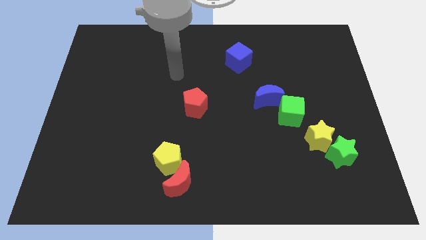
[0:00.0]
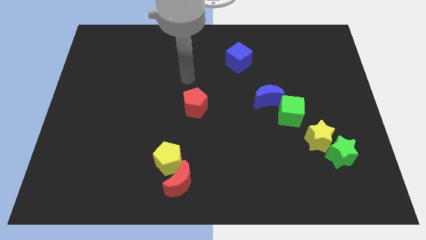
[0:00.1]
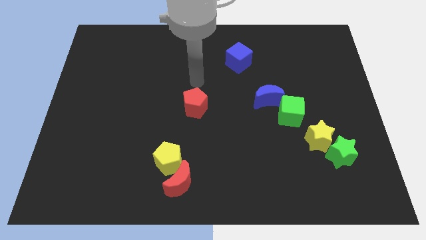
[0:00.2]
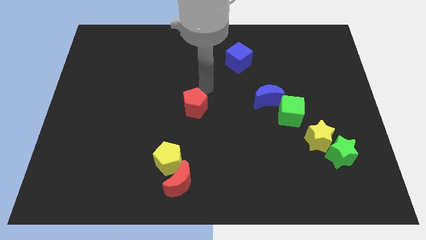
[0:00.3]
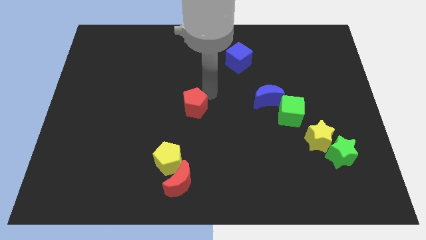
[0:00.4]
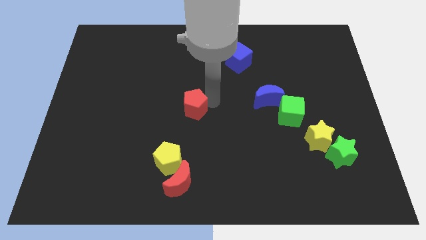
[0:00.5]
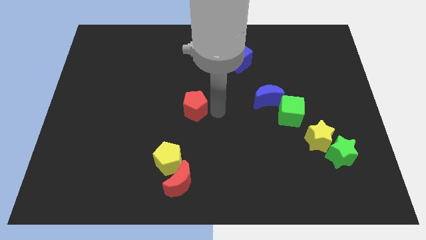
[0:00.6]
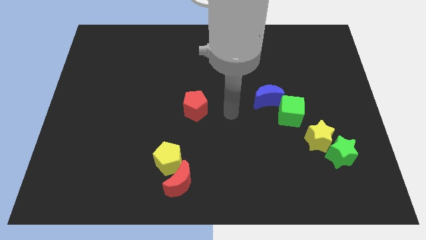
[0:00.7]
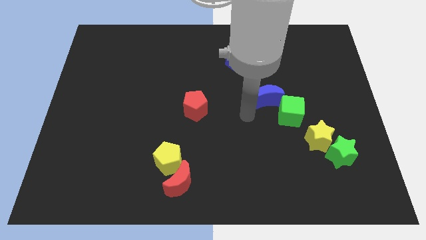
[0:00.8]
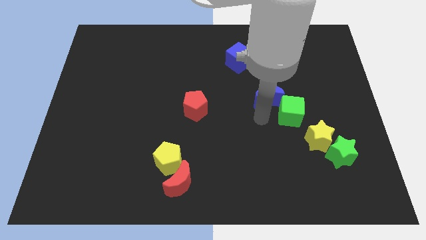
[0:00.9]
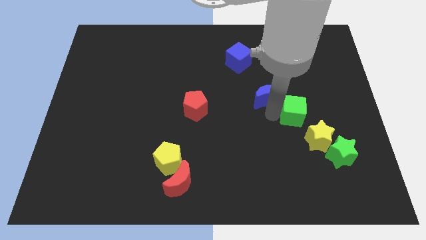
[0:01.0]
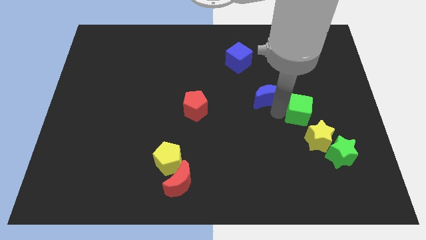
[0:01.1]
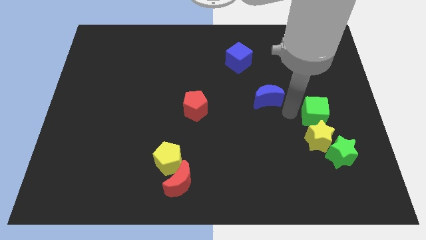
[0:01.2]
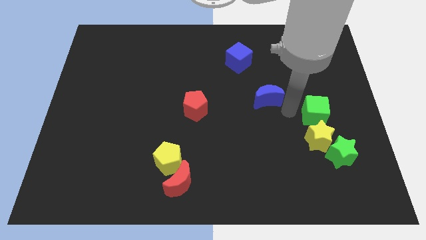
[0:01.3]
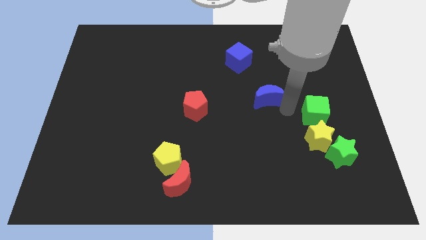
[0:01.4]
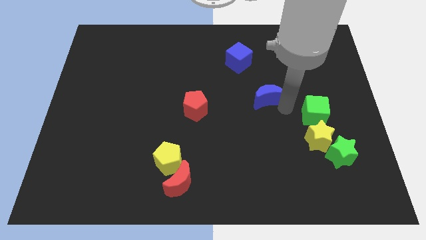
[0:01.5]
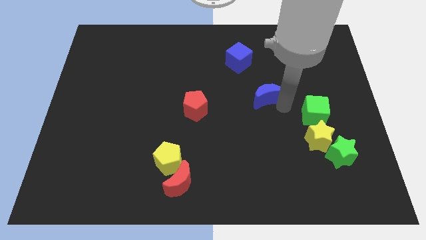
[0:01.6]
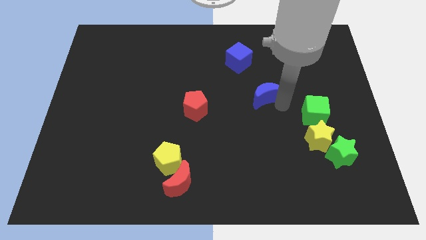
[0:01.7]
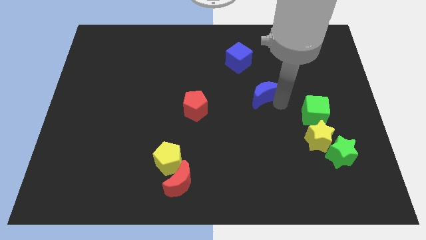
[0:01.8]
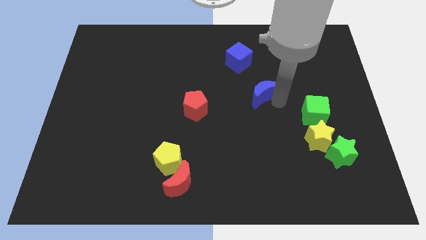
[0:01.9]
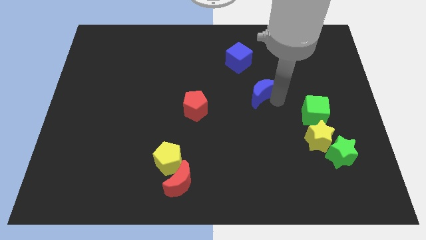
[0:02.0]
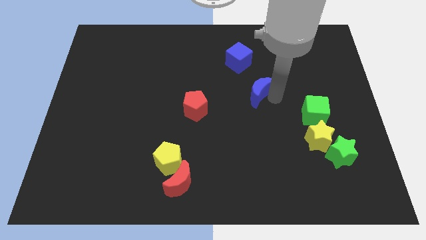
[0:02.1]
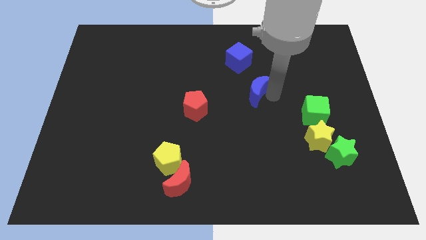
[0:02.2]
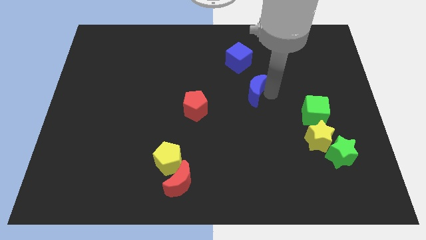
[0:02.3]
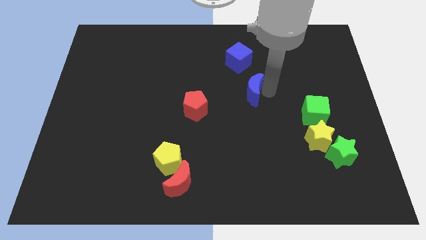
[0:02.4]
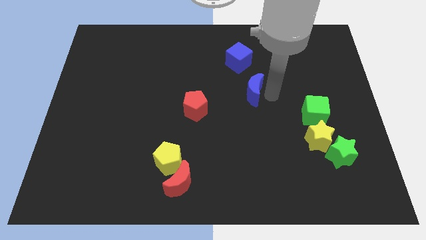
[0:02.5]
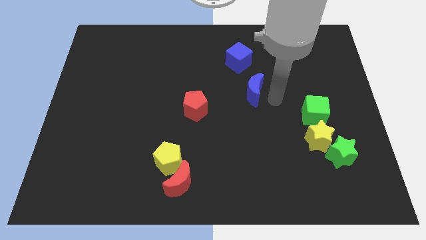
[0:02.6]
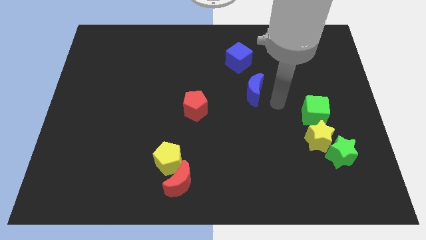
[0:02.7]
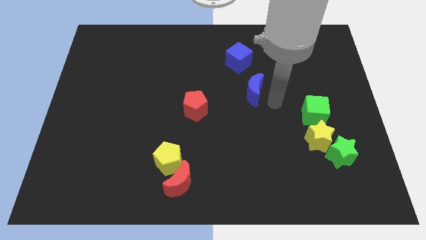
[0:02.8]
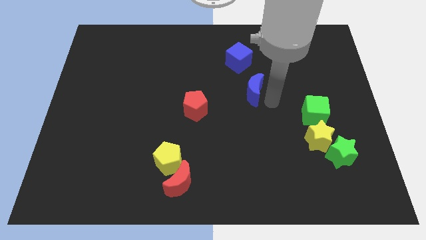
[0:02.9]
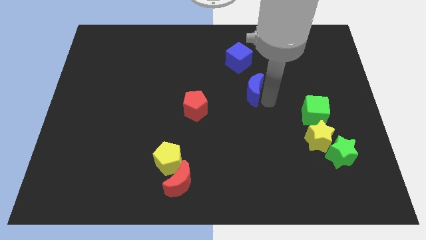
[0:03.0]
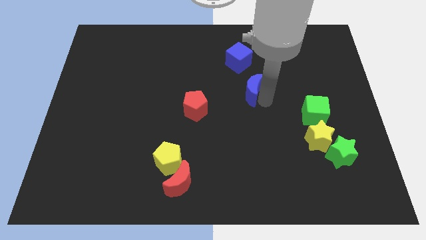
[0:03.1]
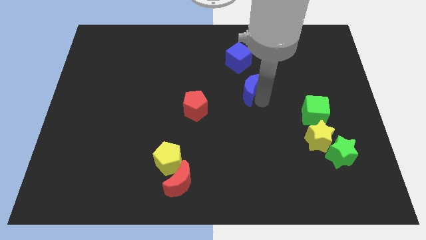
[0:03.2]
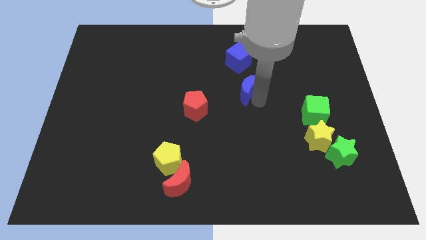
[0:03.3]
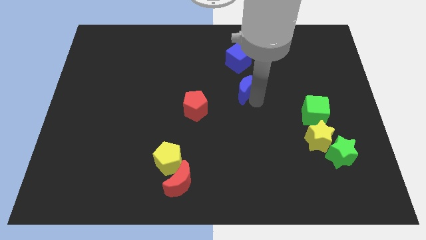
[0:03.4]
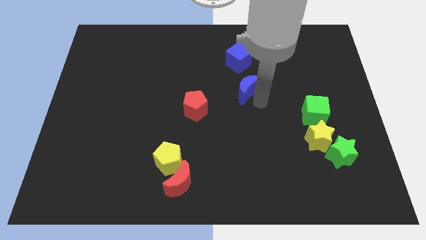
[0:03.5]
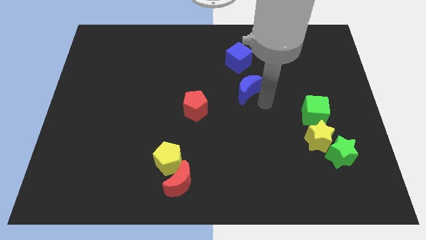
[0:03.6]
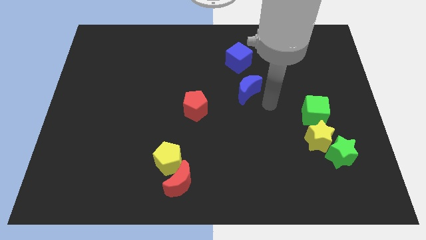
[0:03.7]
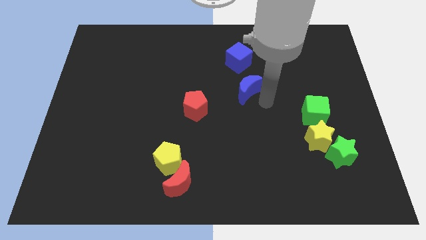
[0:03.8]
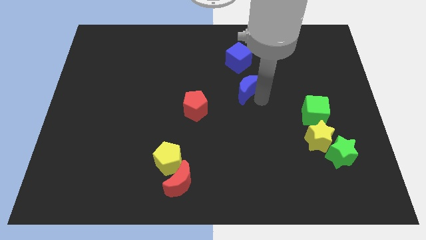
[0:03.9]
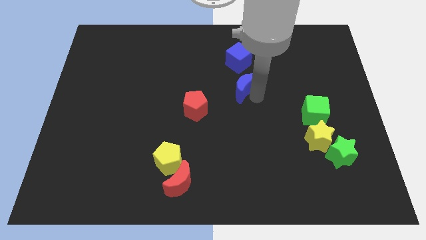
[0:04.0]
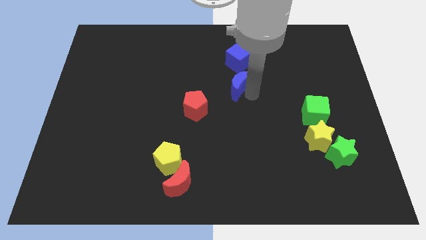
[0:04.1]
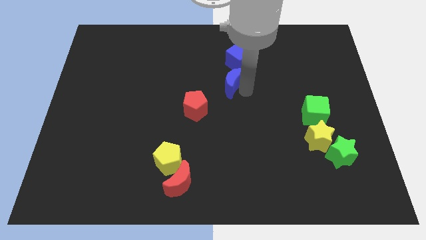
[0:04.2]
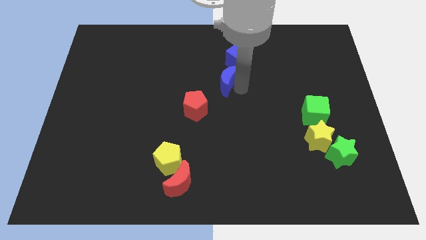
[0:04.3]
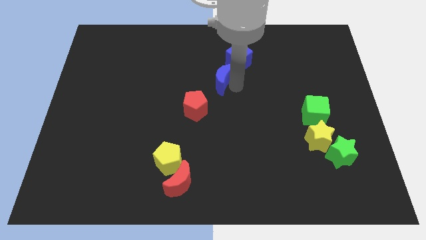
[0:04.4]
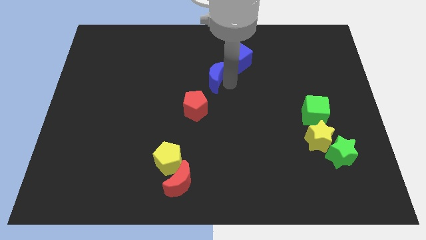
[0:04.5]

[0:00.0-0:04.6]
move the blue moon to the top of the red pentagon

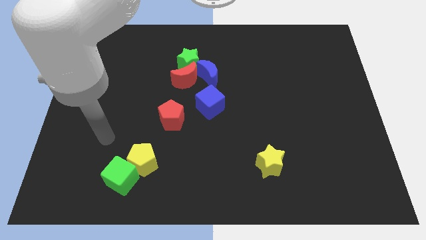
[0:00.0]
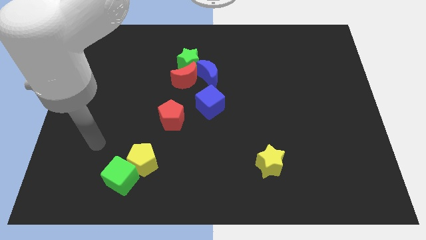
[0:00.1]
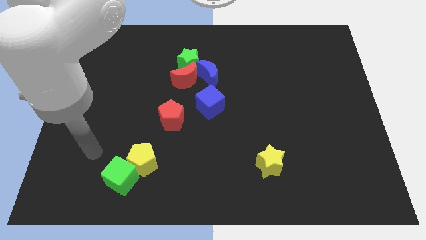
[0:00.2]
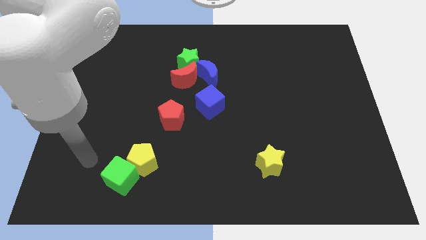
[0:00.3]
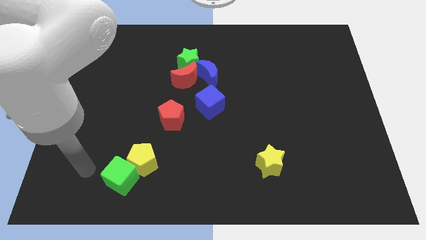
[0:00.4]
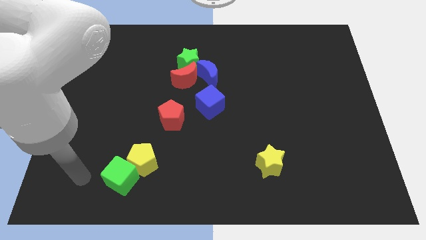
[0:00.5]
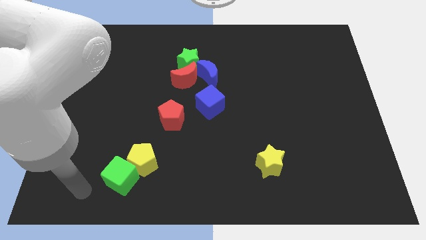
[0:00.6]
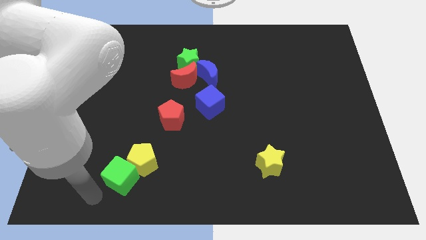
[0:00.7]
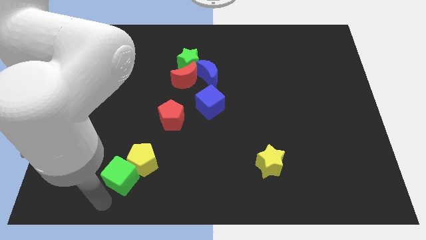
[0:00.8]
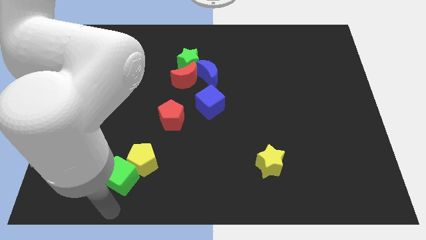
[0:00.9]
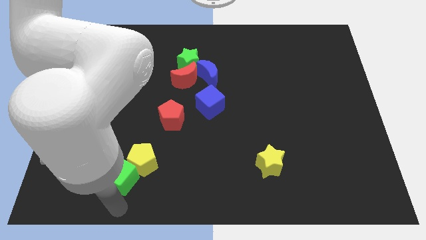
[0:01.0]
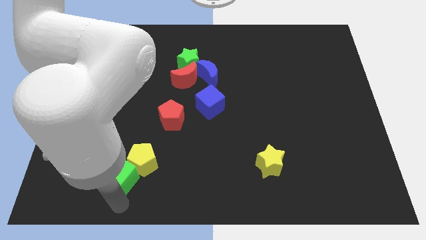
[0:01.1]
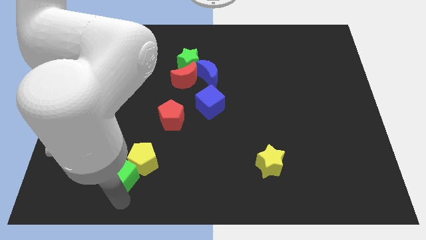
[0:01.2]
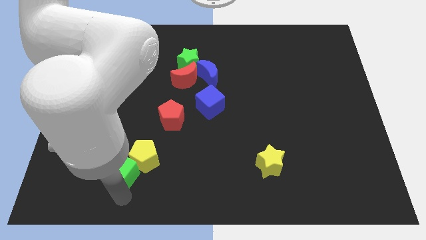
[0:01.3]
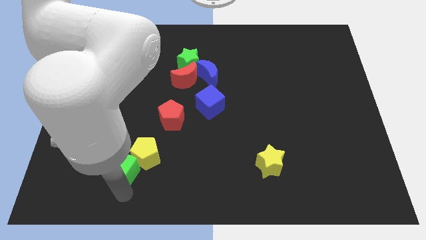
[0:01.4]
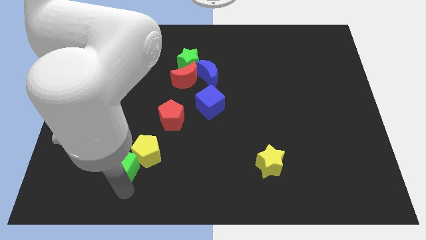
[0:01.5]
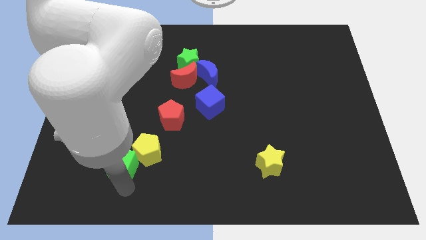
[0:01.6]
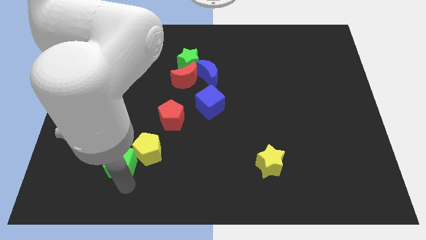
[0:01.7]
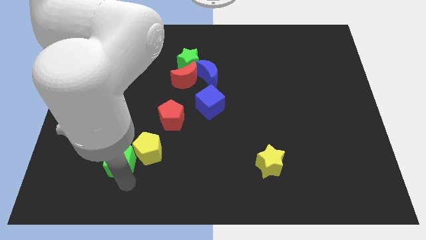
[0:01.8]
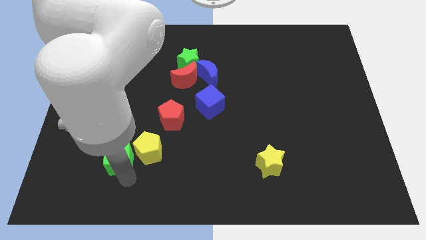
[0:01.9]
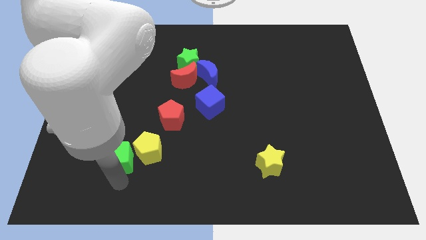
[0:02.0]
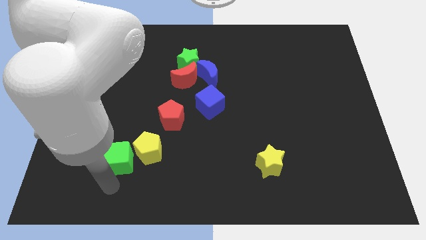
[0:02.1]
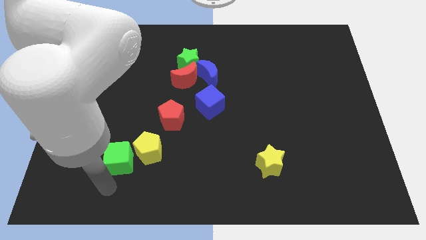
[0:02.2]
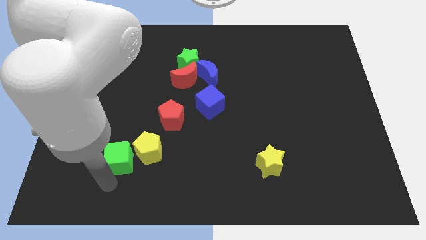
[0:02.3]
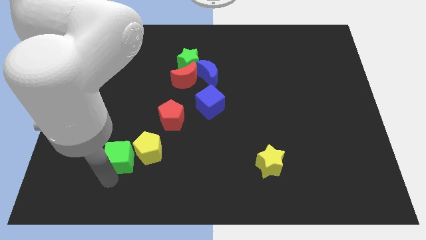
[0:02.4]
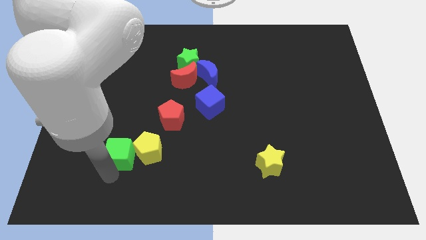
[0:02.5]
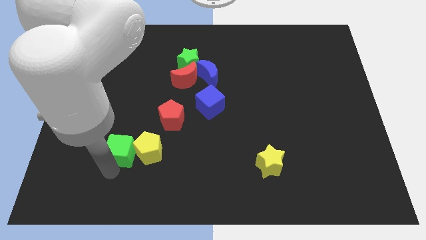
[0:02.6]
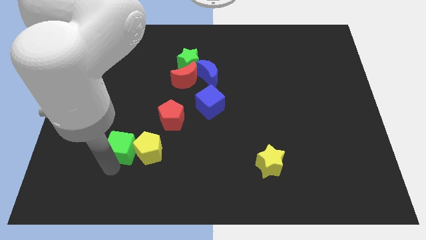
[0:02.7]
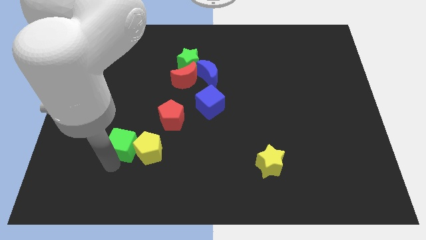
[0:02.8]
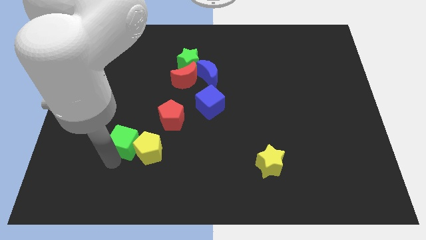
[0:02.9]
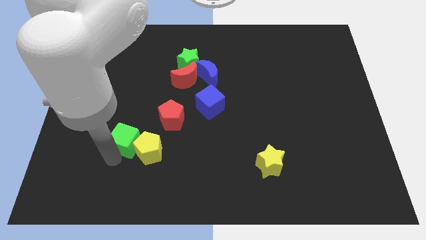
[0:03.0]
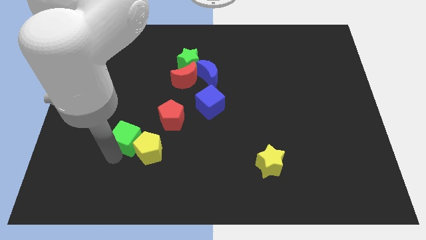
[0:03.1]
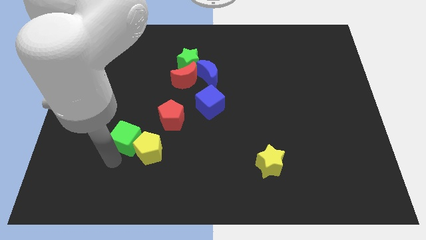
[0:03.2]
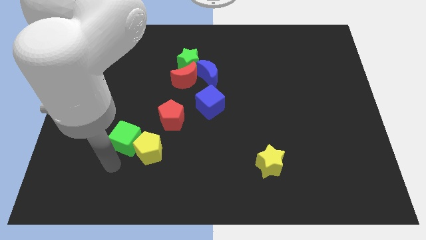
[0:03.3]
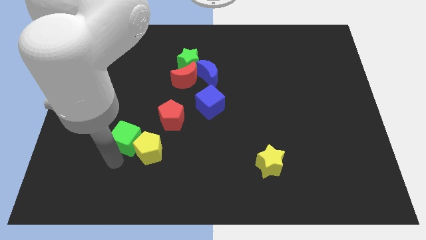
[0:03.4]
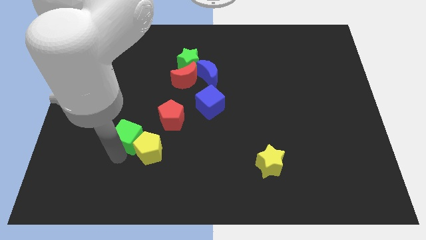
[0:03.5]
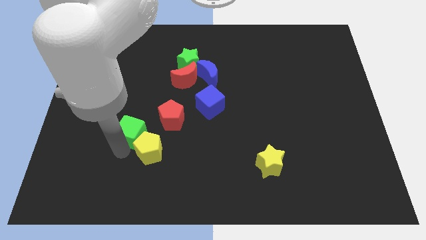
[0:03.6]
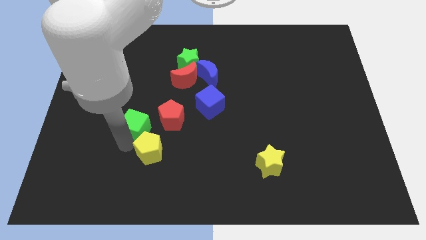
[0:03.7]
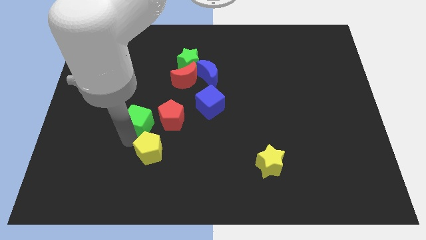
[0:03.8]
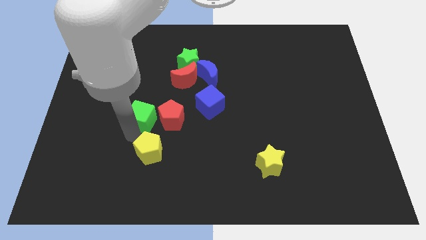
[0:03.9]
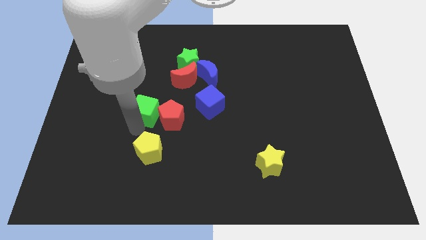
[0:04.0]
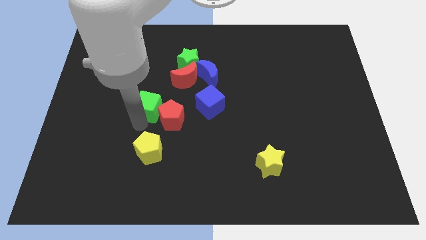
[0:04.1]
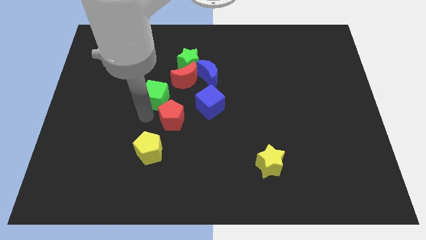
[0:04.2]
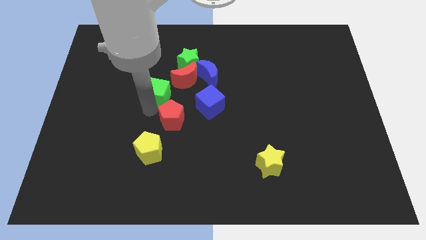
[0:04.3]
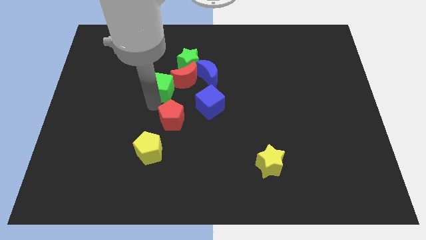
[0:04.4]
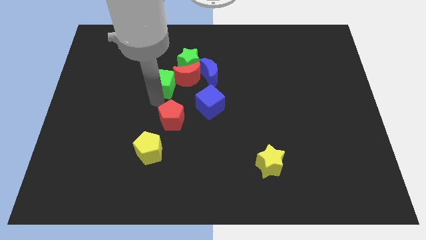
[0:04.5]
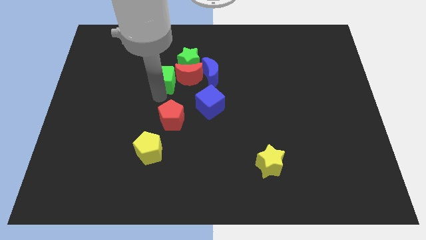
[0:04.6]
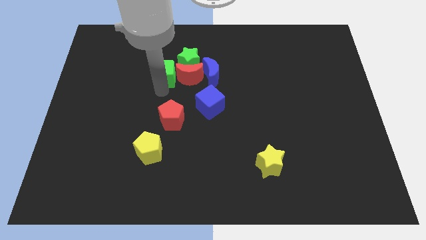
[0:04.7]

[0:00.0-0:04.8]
put the green cube diagonally up and to the left of the red moon
